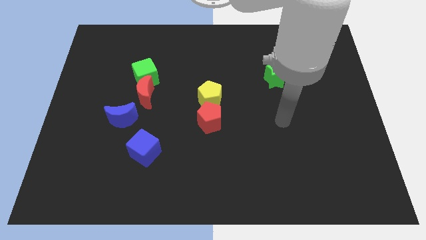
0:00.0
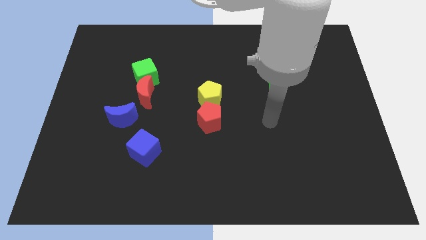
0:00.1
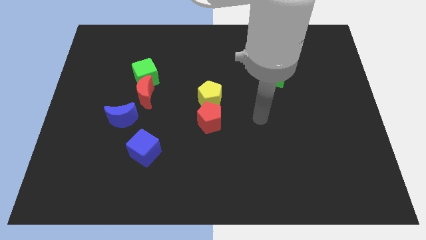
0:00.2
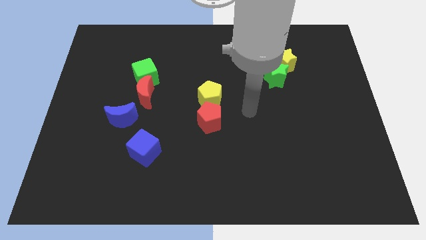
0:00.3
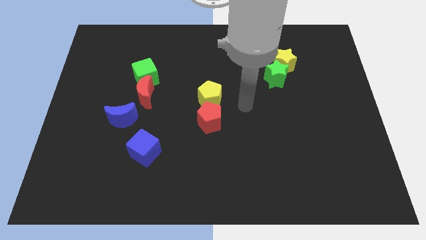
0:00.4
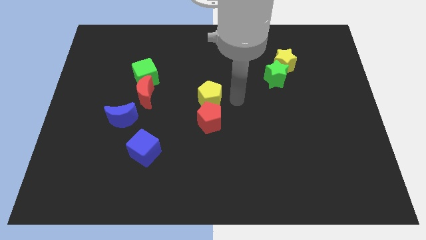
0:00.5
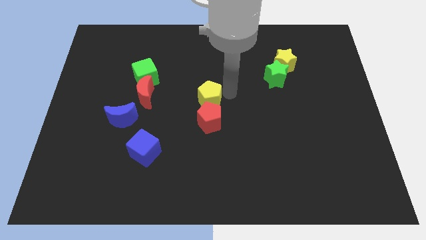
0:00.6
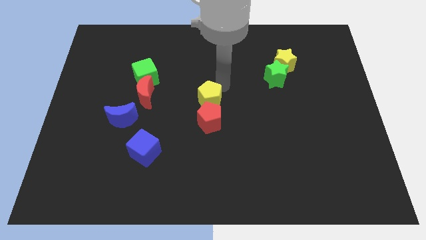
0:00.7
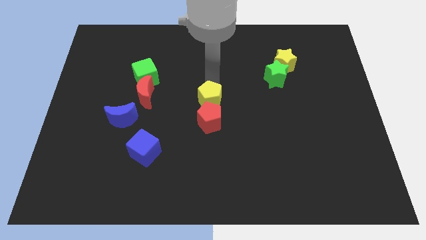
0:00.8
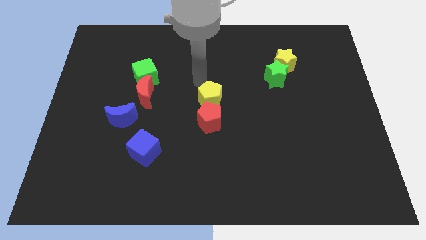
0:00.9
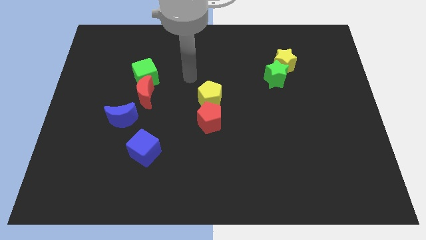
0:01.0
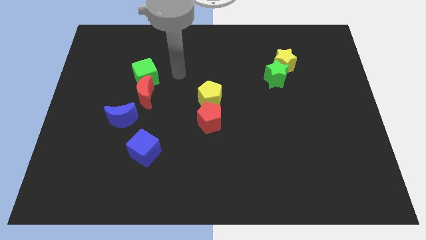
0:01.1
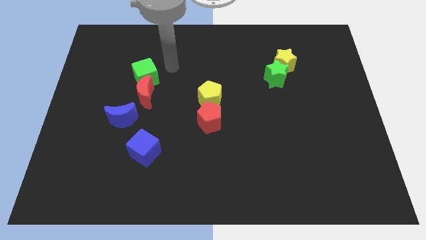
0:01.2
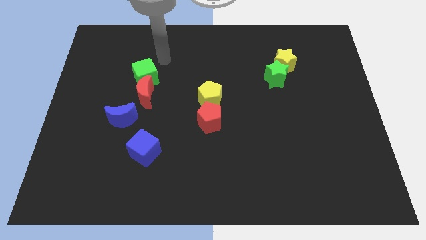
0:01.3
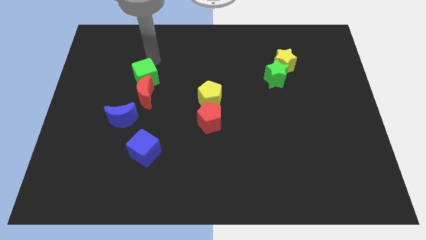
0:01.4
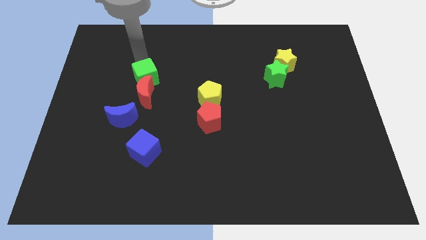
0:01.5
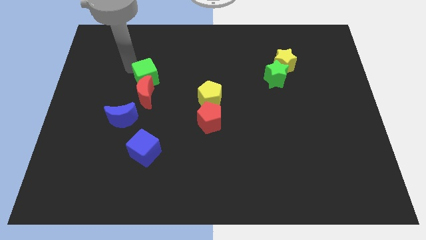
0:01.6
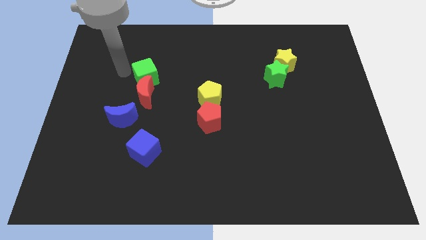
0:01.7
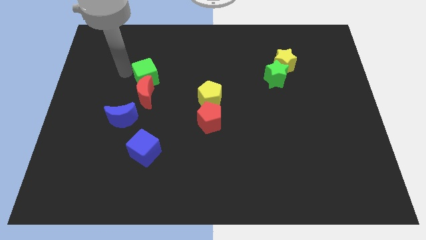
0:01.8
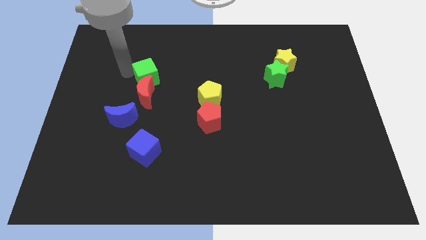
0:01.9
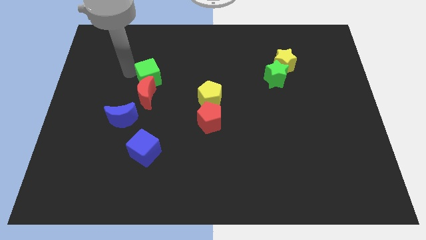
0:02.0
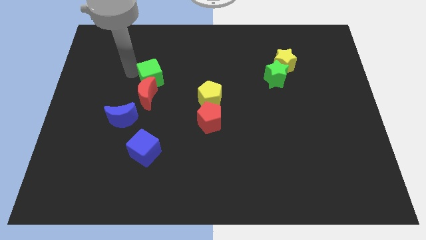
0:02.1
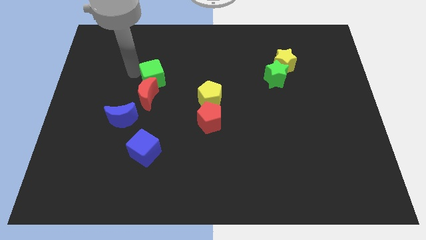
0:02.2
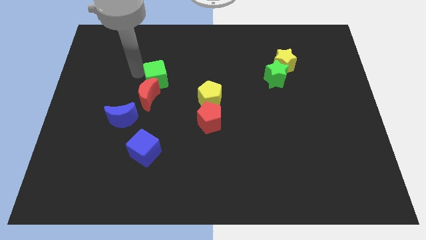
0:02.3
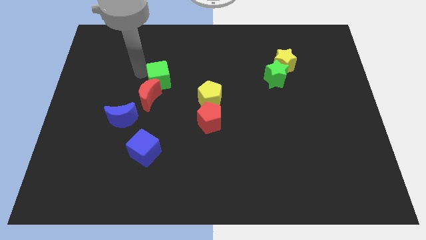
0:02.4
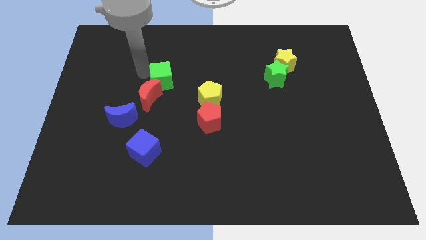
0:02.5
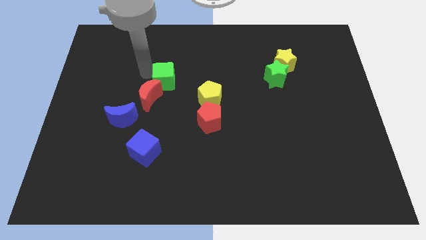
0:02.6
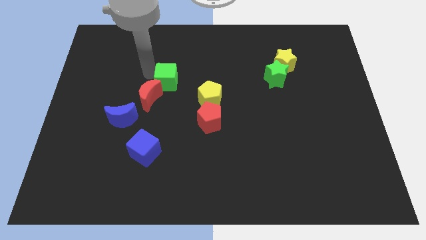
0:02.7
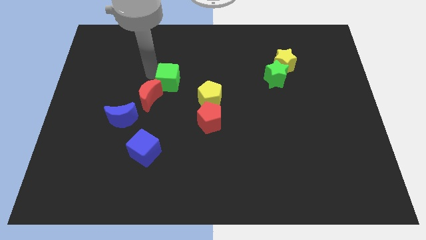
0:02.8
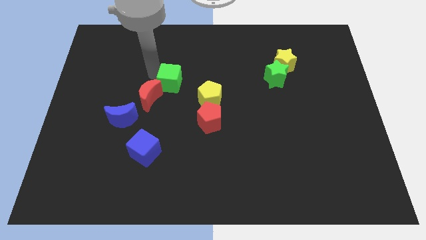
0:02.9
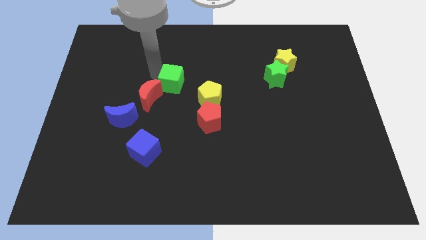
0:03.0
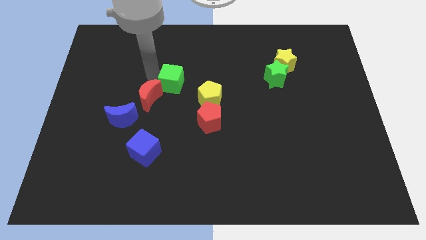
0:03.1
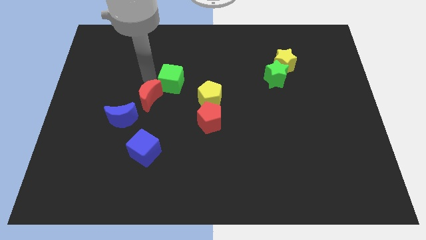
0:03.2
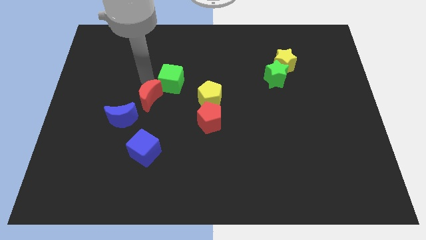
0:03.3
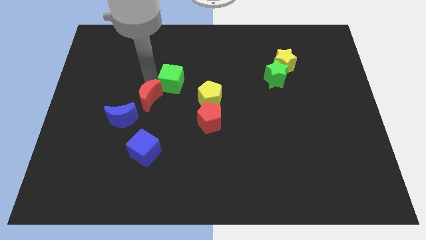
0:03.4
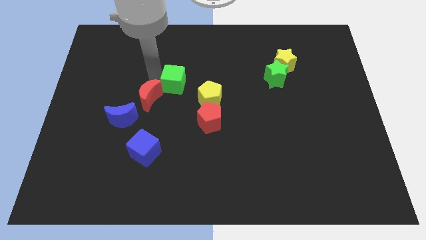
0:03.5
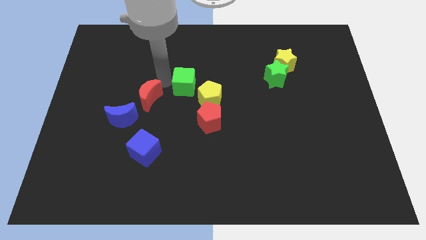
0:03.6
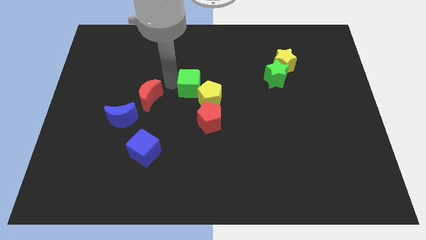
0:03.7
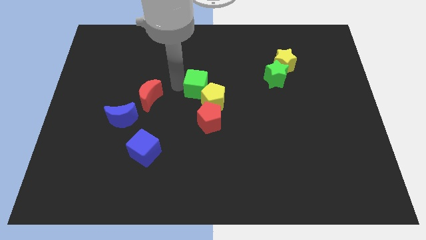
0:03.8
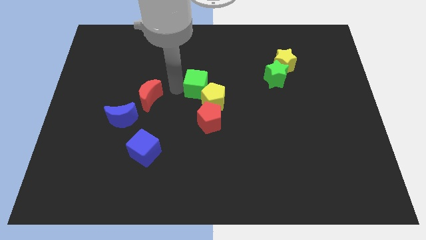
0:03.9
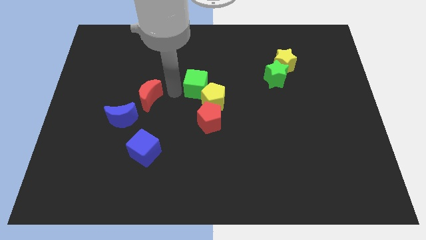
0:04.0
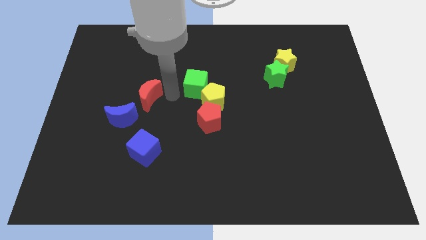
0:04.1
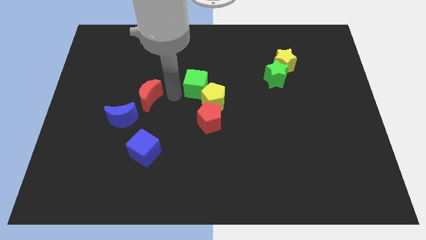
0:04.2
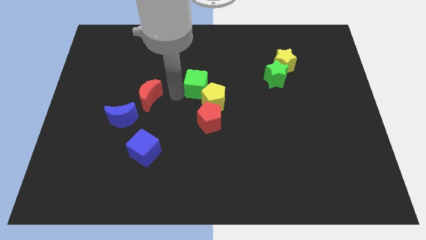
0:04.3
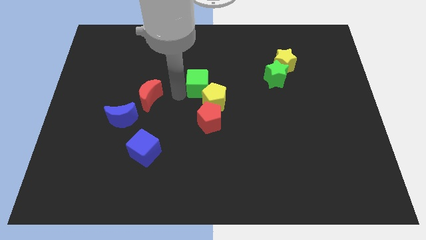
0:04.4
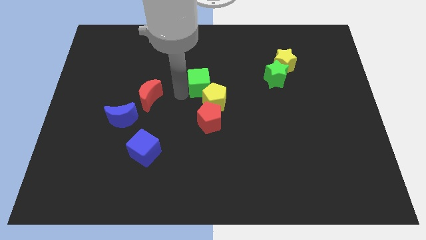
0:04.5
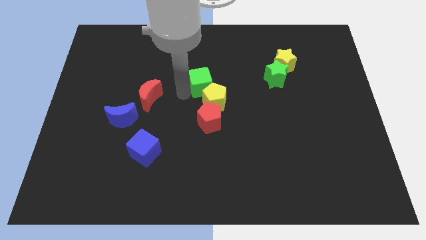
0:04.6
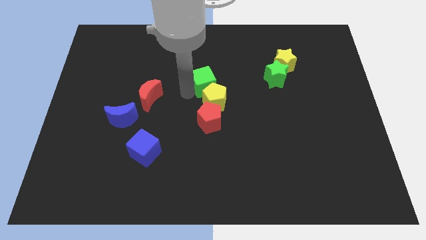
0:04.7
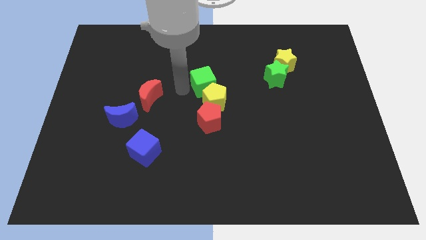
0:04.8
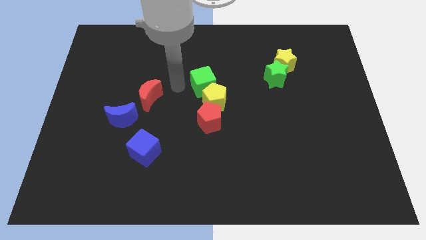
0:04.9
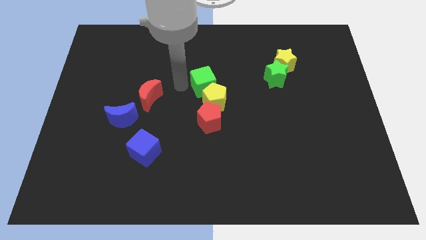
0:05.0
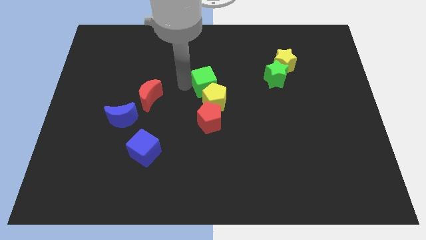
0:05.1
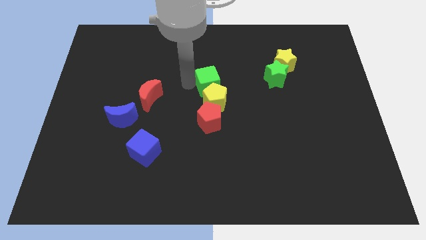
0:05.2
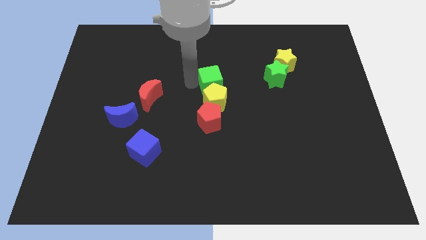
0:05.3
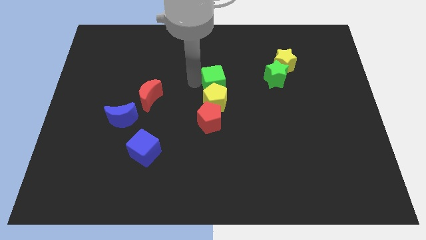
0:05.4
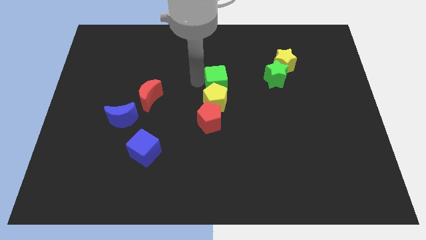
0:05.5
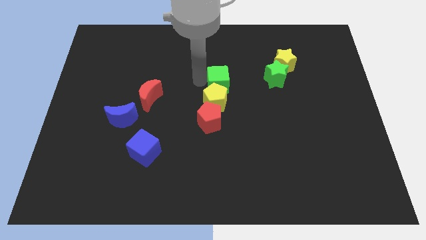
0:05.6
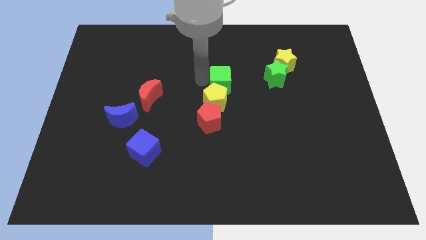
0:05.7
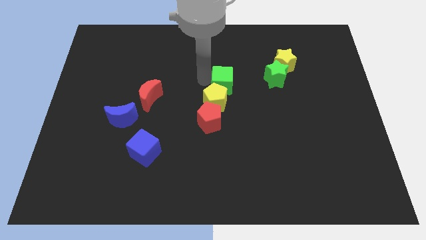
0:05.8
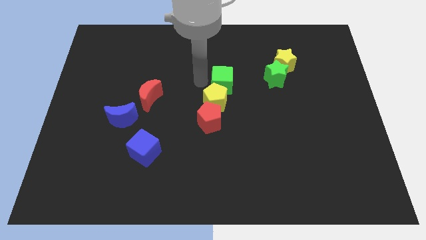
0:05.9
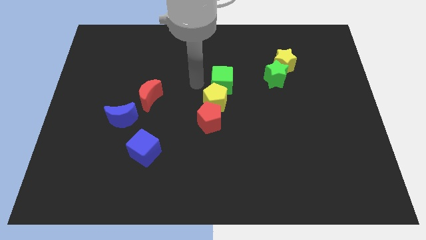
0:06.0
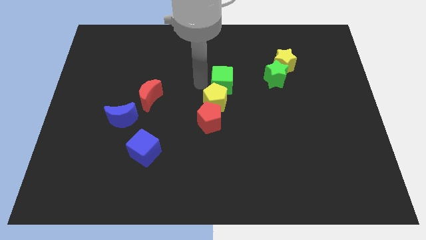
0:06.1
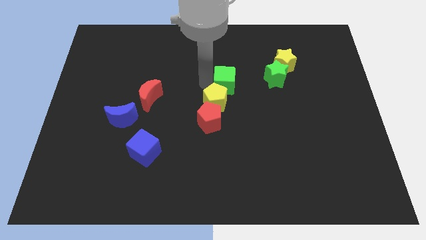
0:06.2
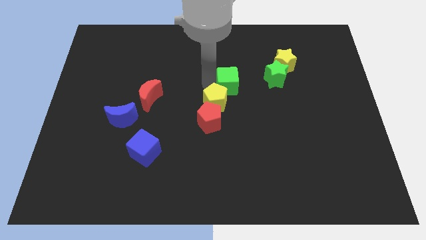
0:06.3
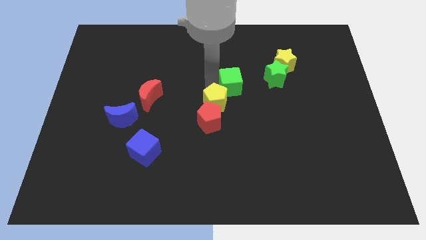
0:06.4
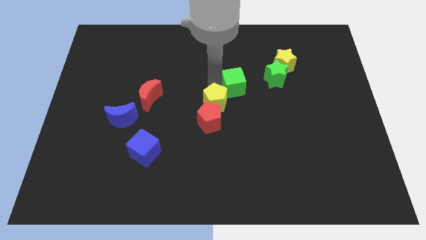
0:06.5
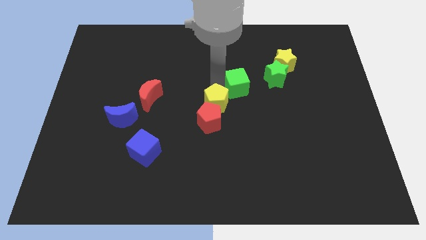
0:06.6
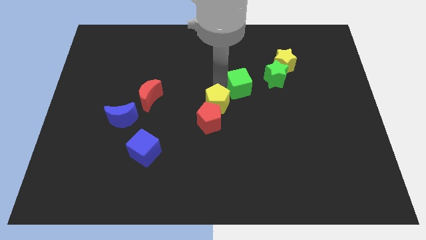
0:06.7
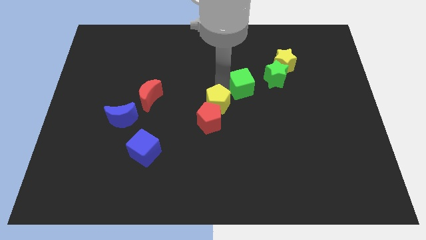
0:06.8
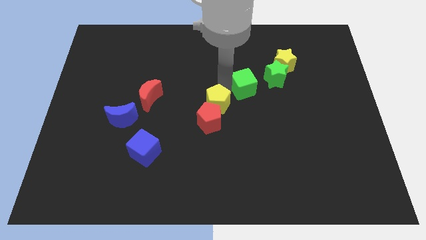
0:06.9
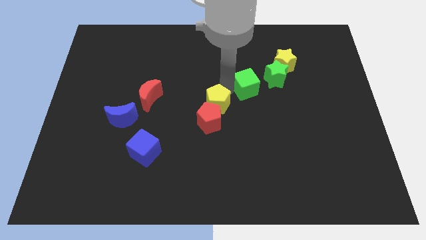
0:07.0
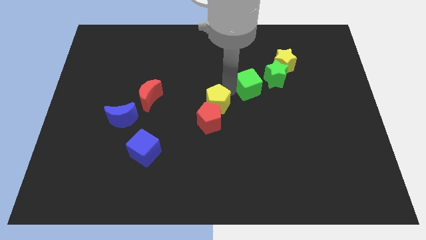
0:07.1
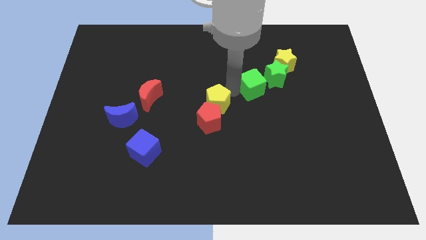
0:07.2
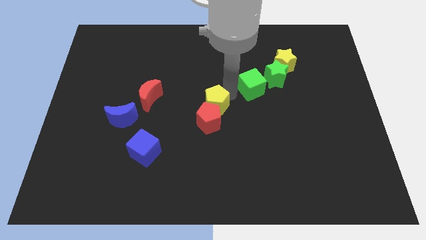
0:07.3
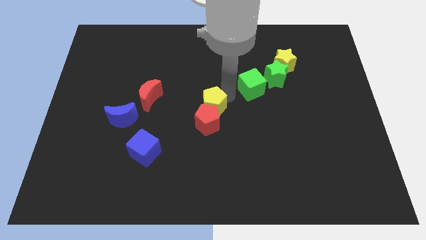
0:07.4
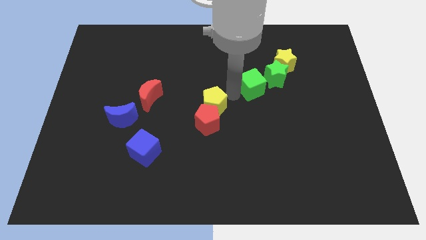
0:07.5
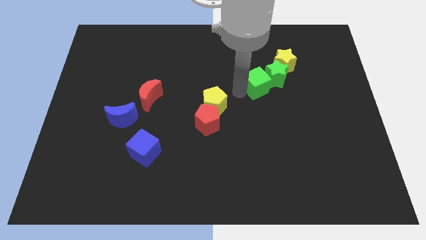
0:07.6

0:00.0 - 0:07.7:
push the green cube next to the green star
